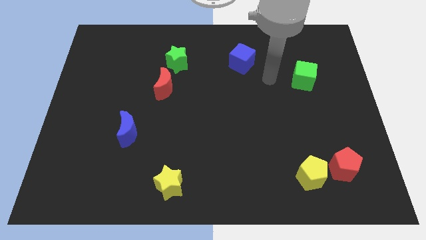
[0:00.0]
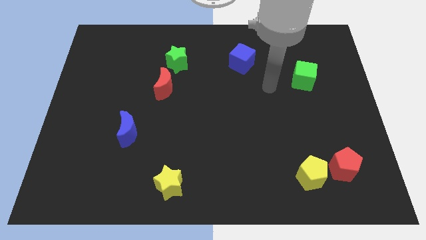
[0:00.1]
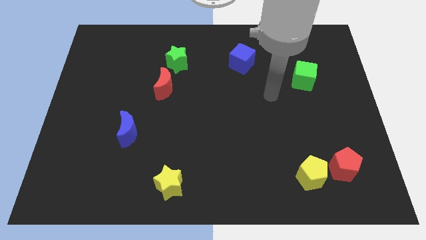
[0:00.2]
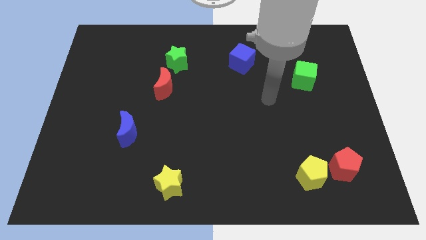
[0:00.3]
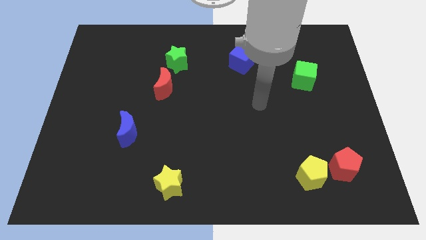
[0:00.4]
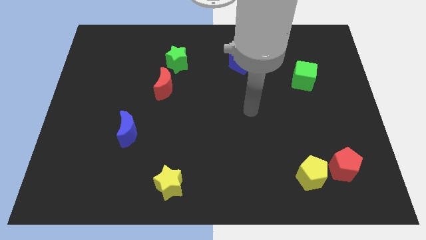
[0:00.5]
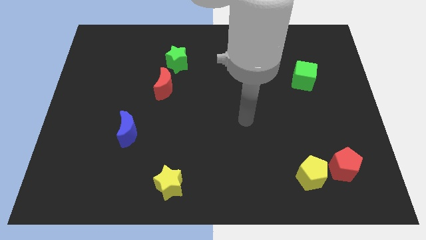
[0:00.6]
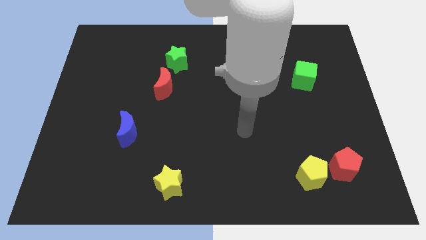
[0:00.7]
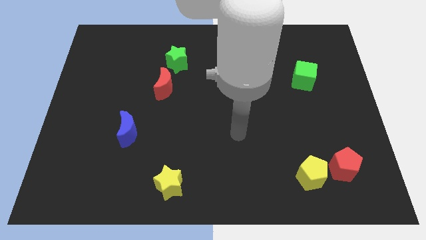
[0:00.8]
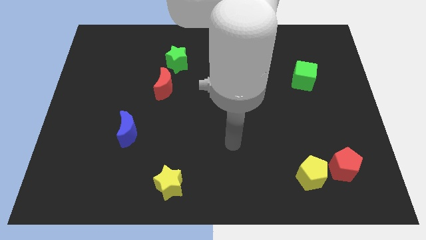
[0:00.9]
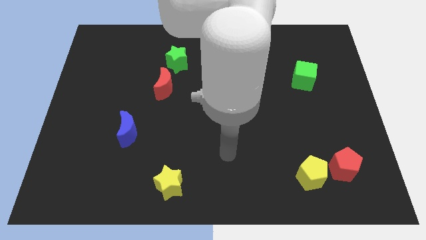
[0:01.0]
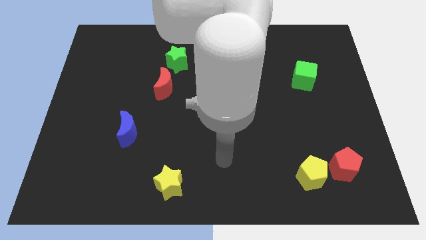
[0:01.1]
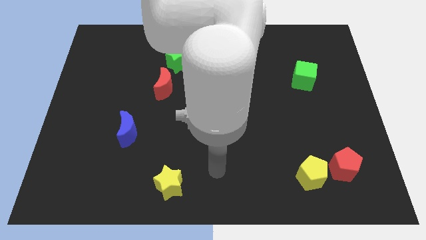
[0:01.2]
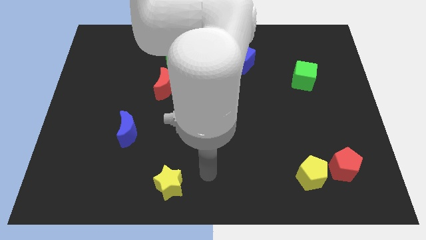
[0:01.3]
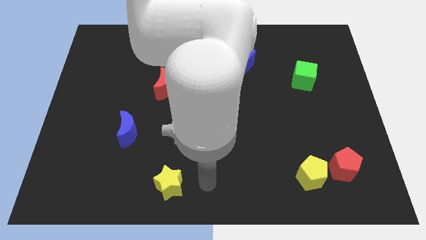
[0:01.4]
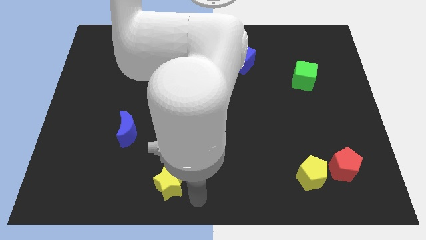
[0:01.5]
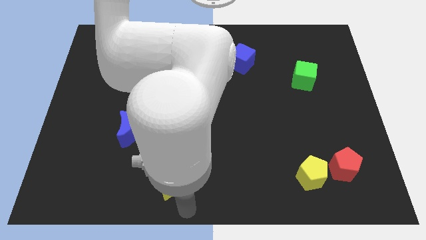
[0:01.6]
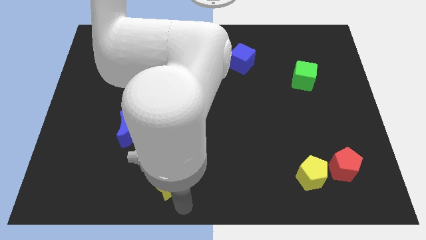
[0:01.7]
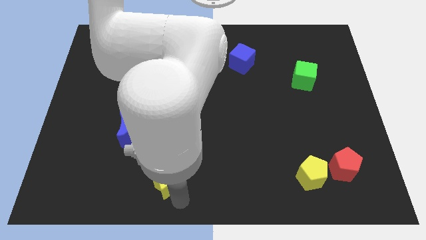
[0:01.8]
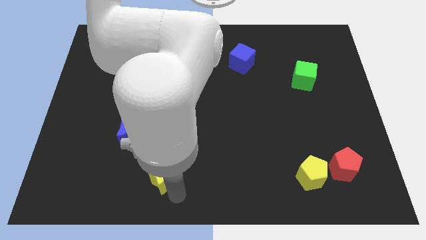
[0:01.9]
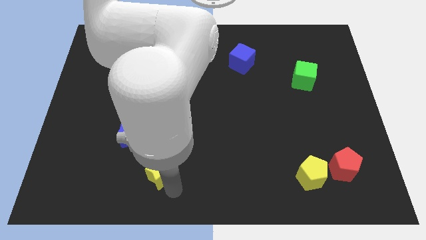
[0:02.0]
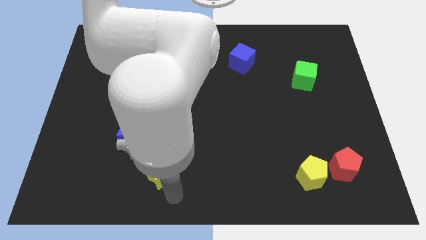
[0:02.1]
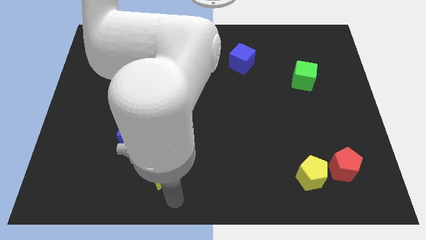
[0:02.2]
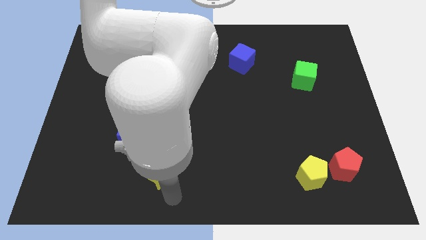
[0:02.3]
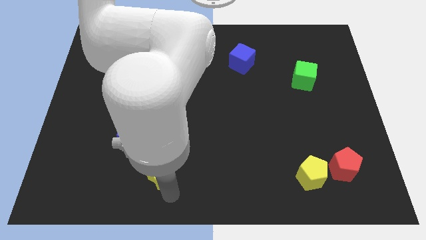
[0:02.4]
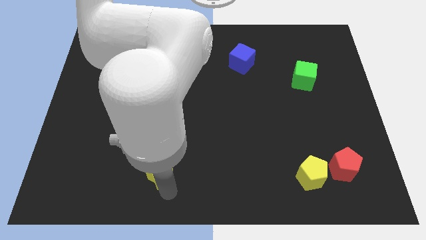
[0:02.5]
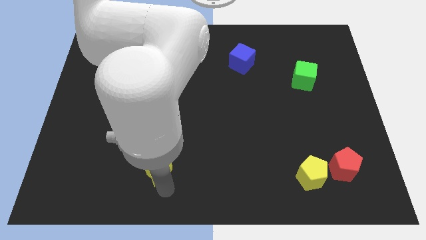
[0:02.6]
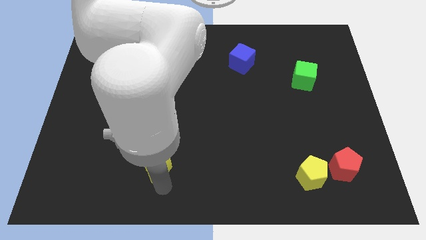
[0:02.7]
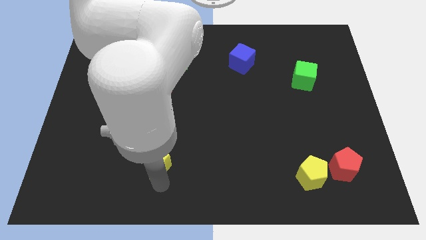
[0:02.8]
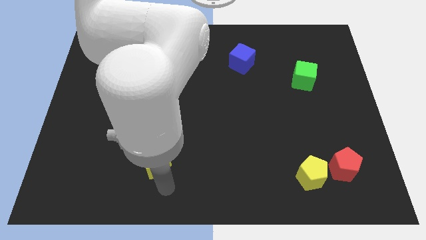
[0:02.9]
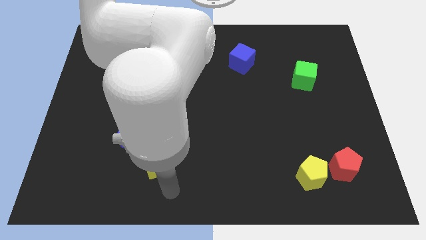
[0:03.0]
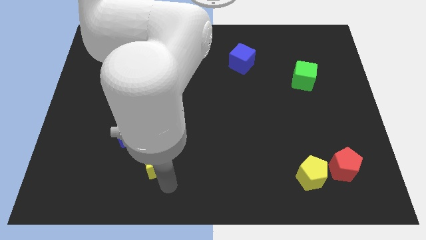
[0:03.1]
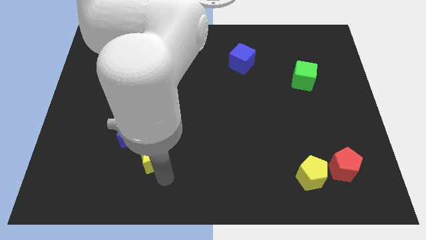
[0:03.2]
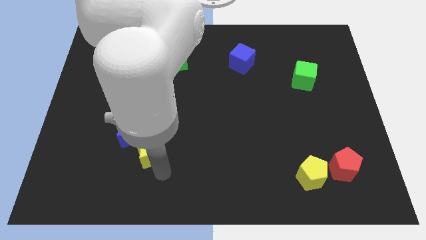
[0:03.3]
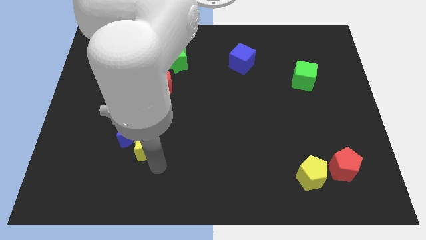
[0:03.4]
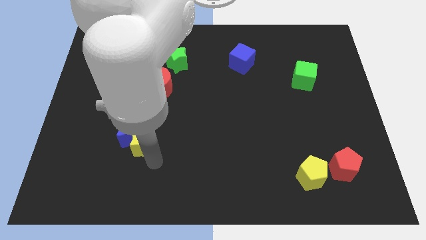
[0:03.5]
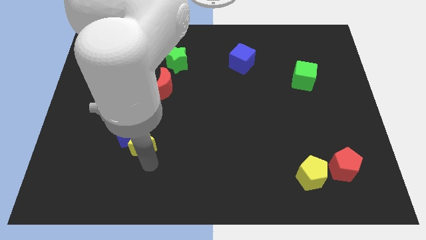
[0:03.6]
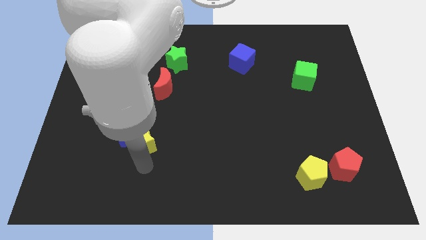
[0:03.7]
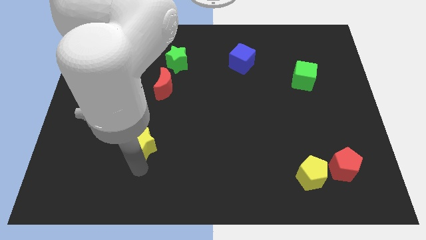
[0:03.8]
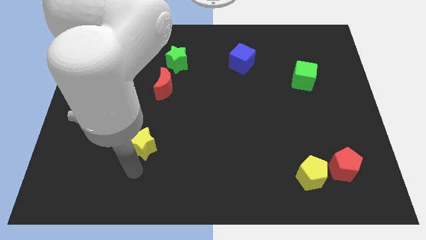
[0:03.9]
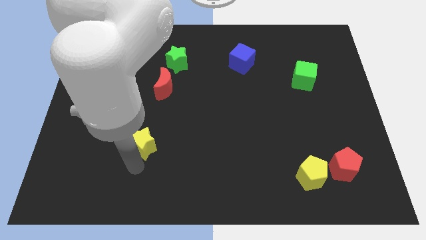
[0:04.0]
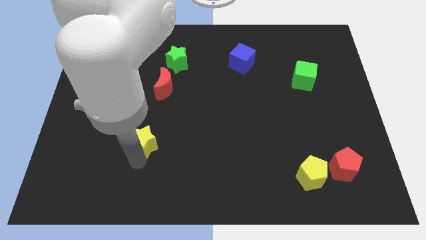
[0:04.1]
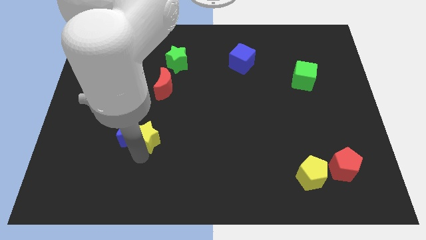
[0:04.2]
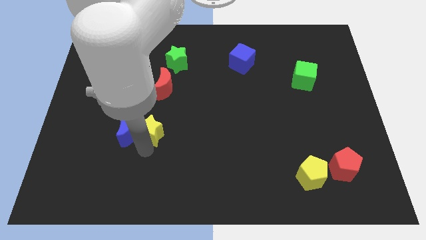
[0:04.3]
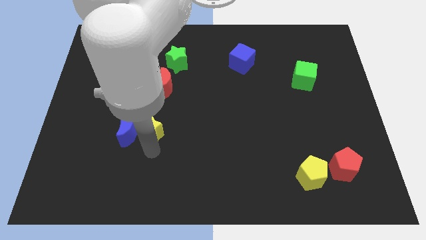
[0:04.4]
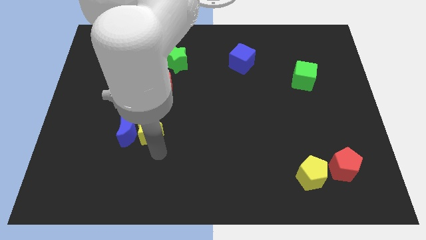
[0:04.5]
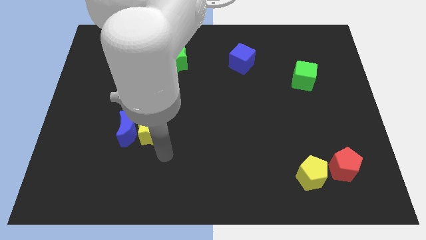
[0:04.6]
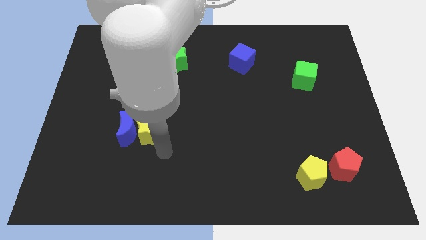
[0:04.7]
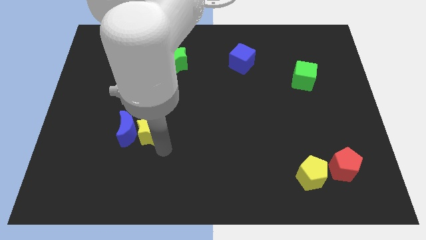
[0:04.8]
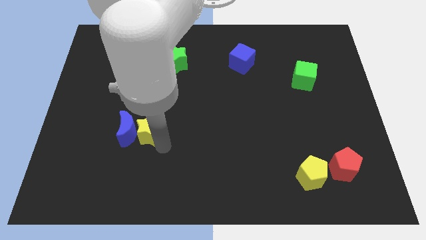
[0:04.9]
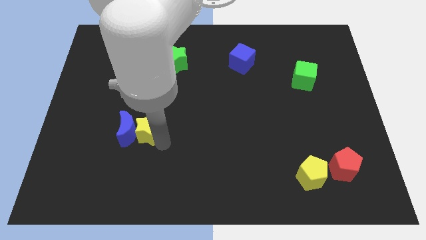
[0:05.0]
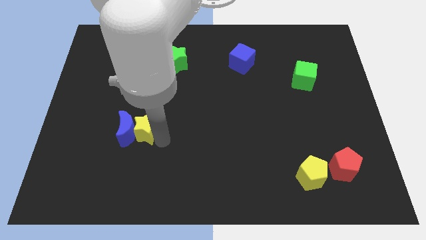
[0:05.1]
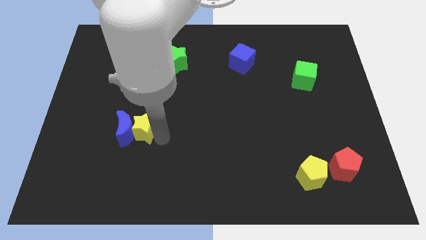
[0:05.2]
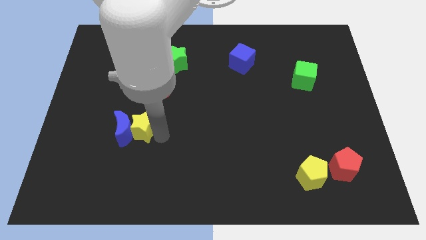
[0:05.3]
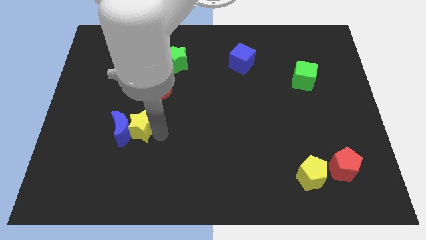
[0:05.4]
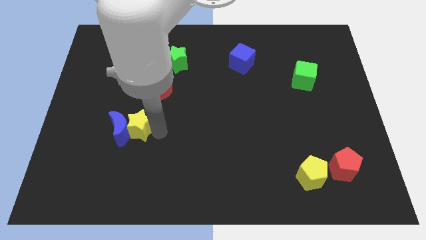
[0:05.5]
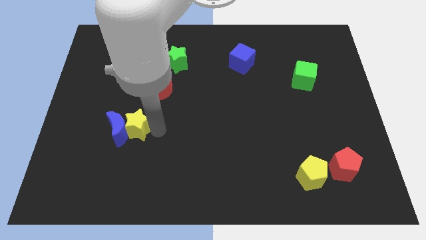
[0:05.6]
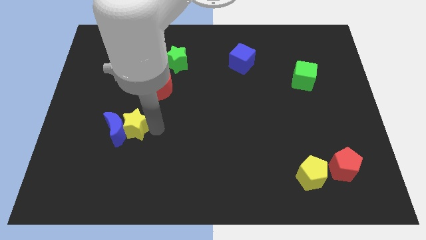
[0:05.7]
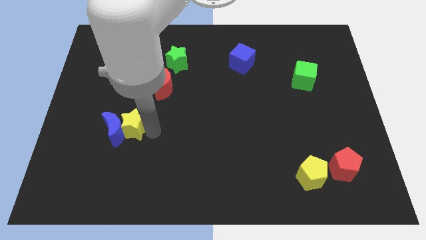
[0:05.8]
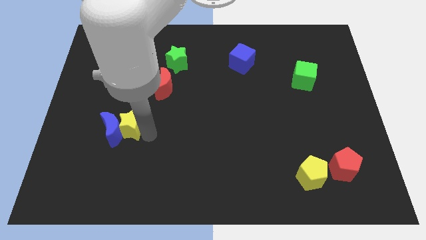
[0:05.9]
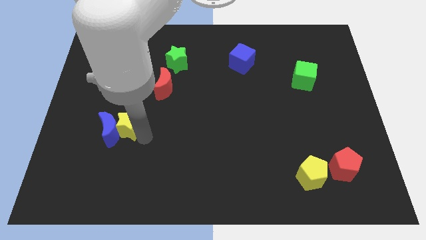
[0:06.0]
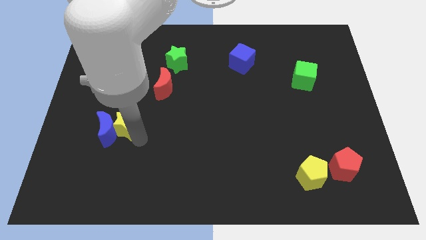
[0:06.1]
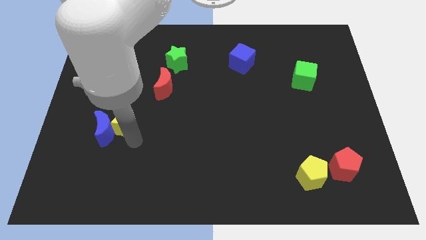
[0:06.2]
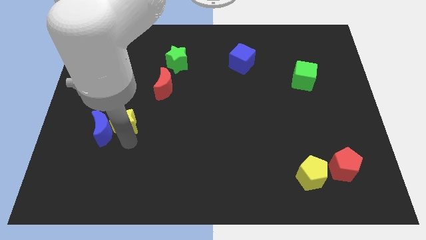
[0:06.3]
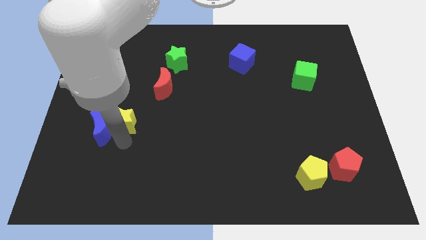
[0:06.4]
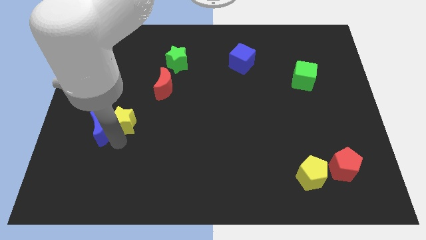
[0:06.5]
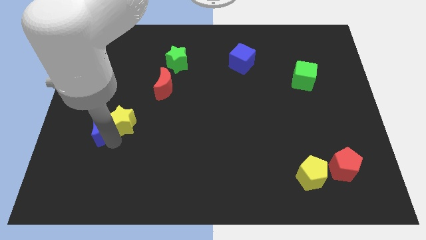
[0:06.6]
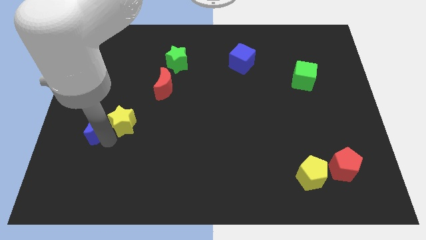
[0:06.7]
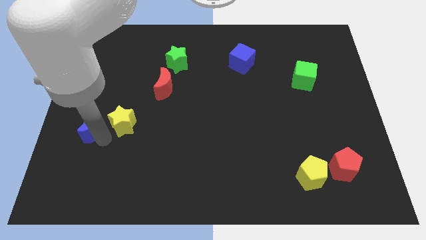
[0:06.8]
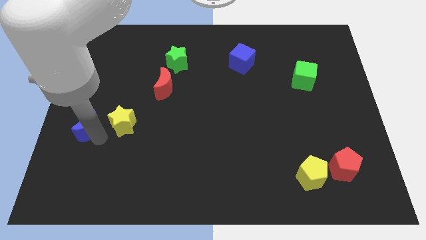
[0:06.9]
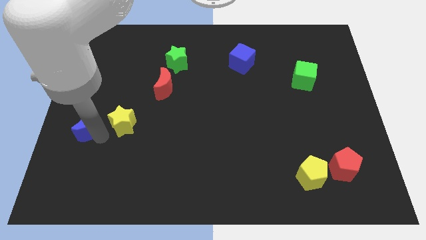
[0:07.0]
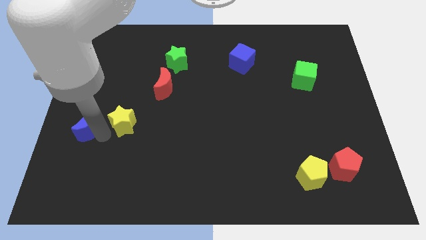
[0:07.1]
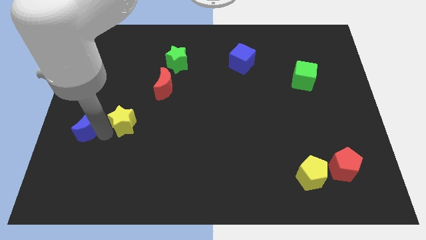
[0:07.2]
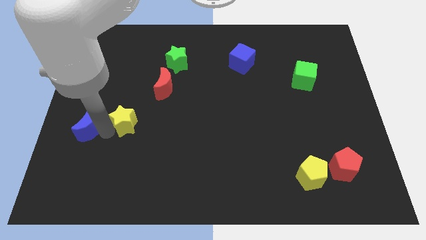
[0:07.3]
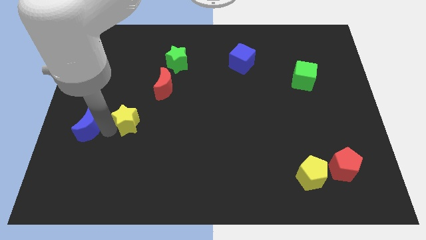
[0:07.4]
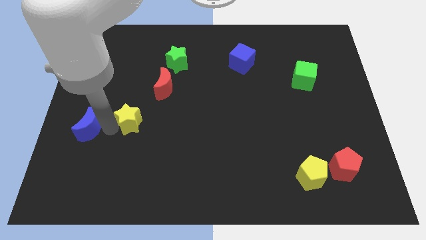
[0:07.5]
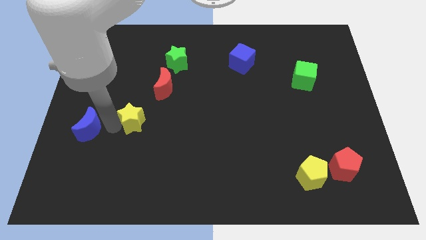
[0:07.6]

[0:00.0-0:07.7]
put the yellow star diagonally down and to the left of the red moon

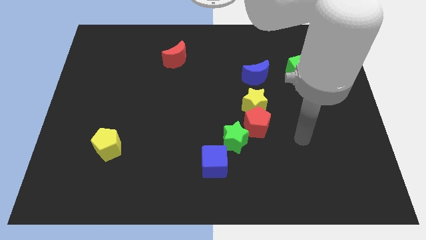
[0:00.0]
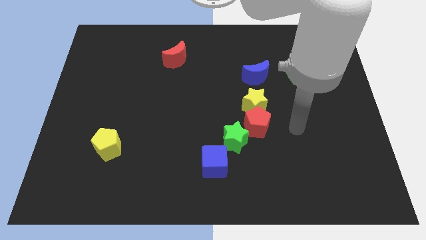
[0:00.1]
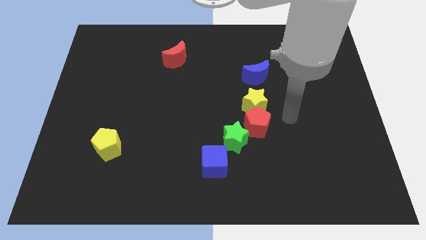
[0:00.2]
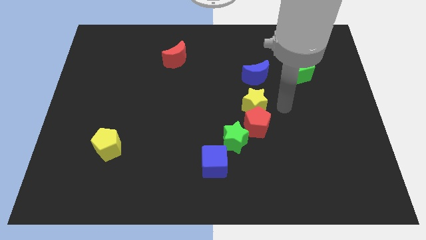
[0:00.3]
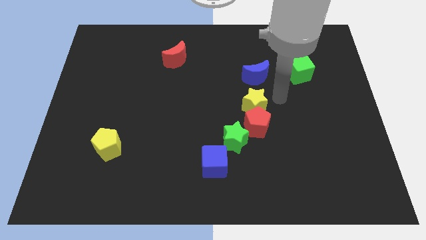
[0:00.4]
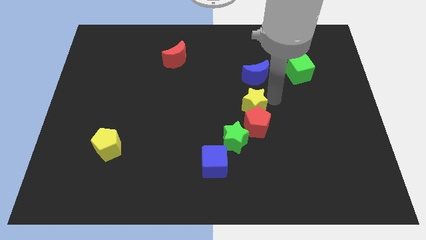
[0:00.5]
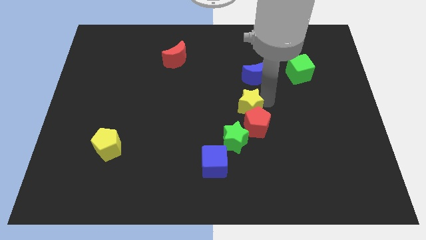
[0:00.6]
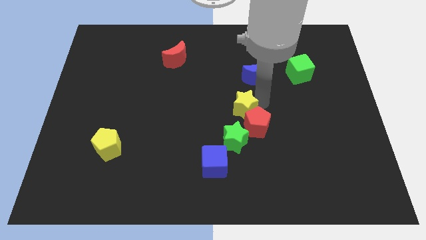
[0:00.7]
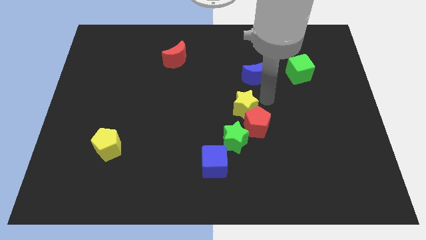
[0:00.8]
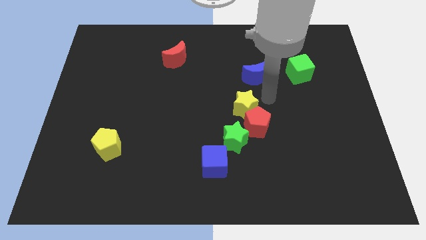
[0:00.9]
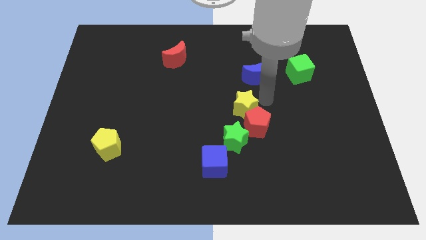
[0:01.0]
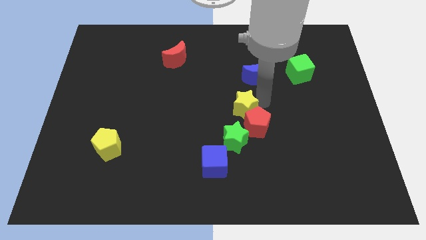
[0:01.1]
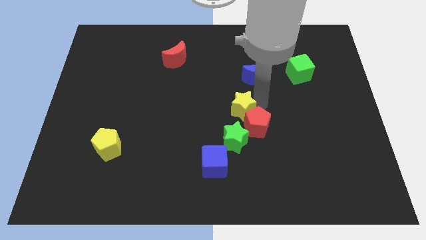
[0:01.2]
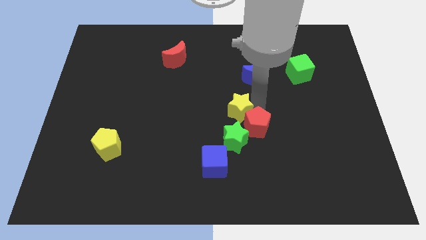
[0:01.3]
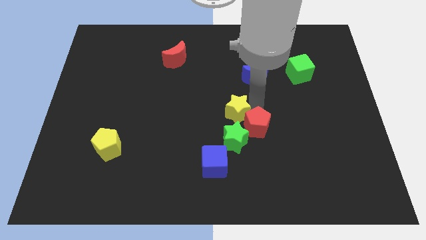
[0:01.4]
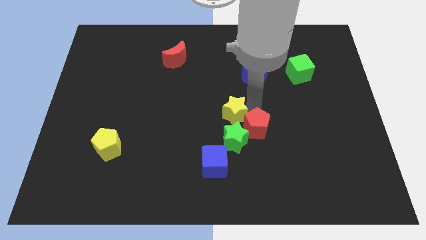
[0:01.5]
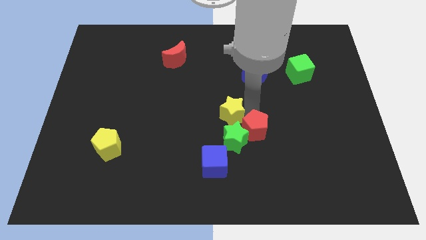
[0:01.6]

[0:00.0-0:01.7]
move the yellow star diagonally up and to the left of the green star
